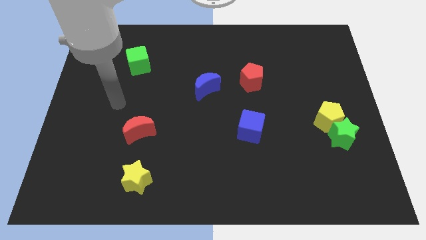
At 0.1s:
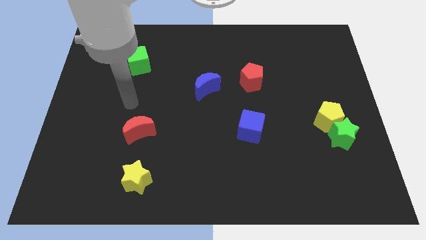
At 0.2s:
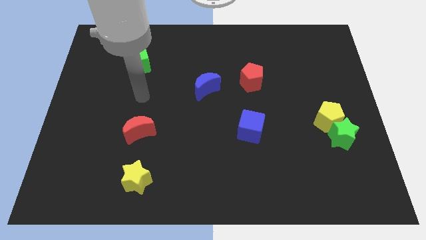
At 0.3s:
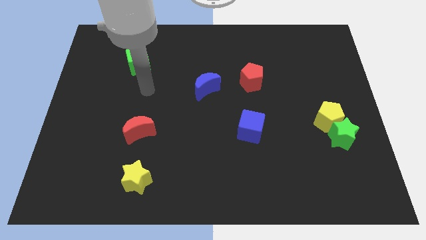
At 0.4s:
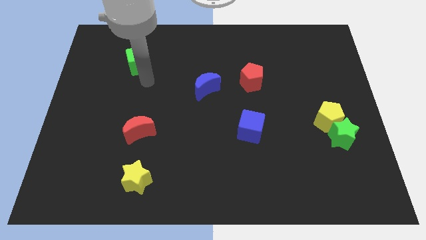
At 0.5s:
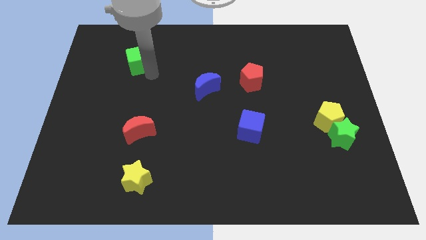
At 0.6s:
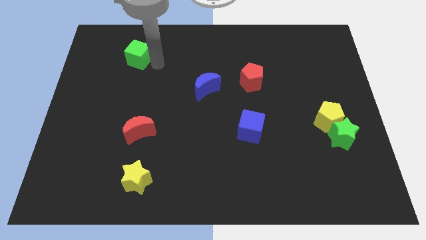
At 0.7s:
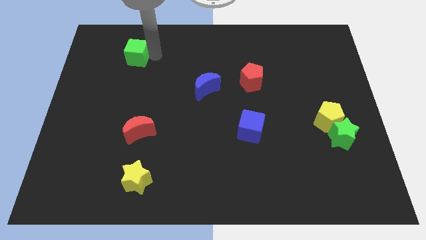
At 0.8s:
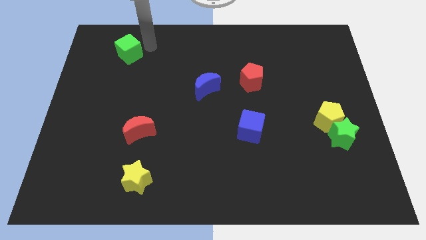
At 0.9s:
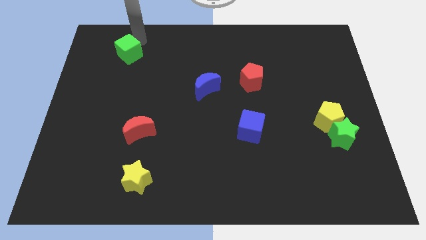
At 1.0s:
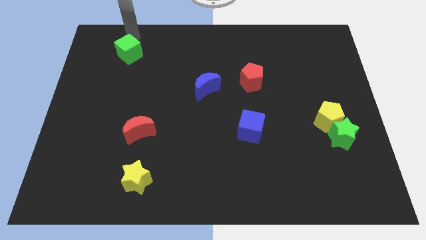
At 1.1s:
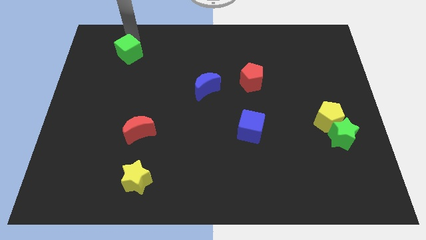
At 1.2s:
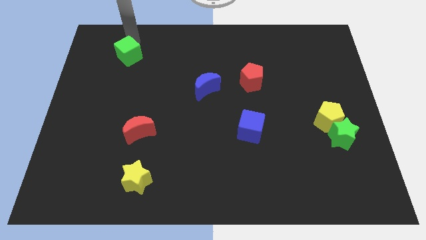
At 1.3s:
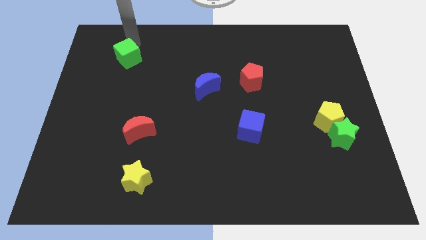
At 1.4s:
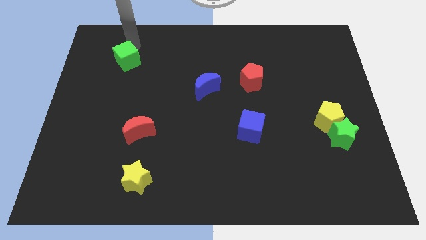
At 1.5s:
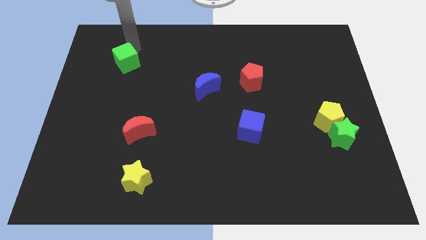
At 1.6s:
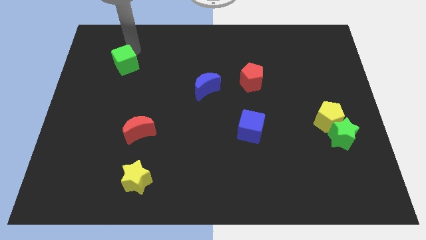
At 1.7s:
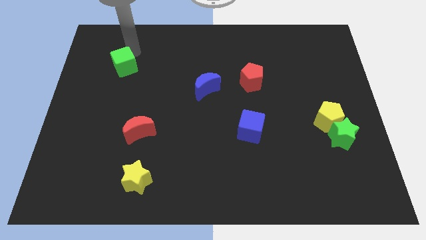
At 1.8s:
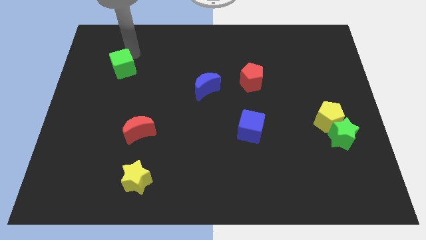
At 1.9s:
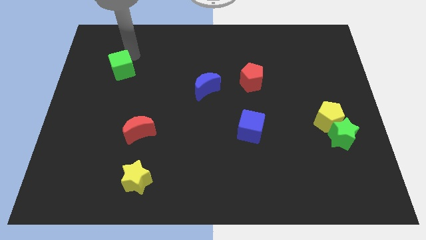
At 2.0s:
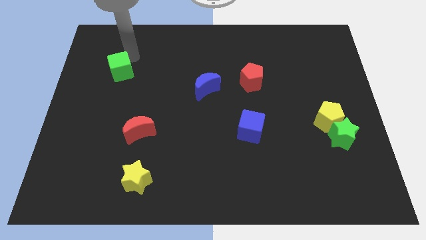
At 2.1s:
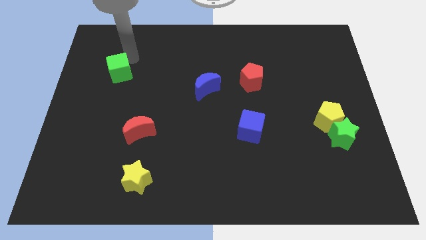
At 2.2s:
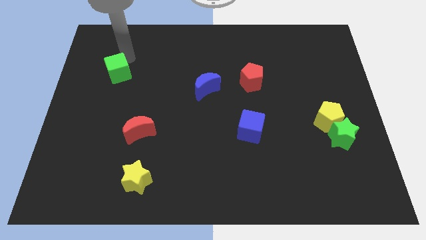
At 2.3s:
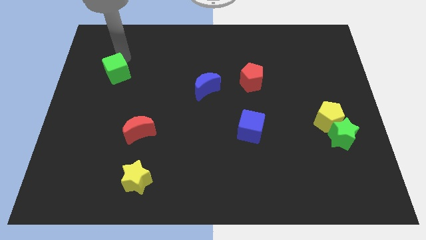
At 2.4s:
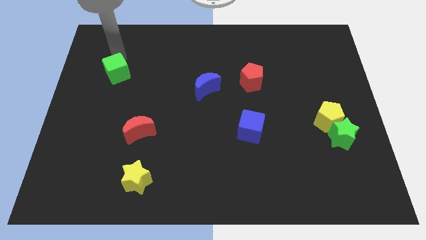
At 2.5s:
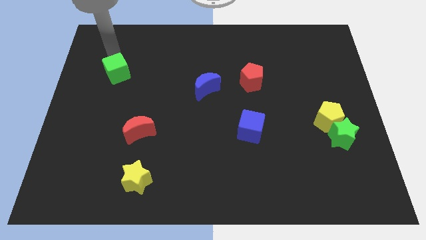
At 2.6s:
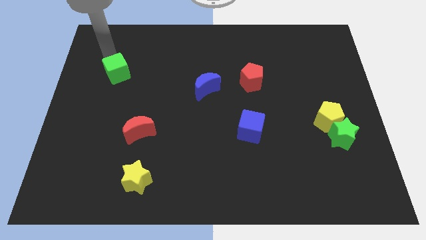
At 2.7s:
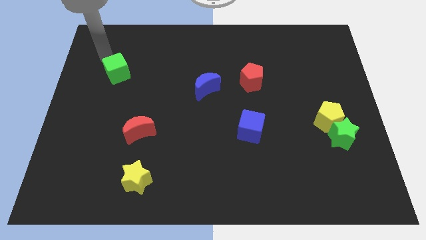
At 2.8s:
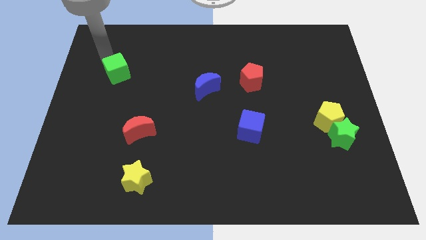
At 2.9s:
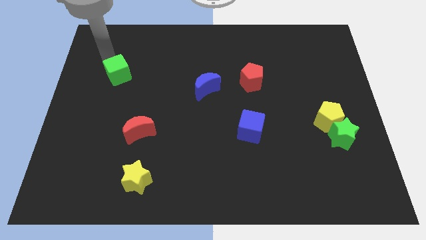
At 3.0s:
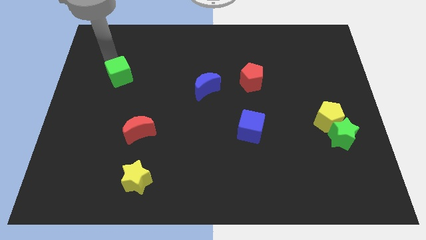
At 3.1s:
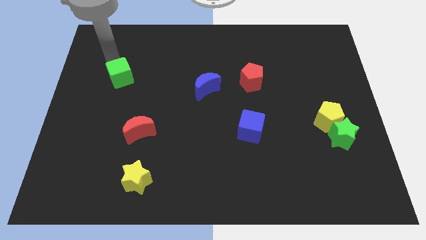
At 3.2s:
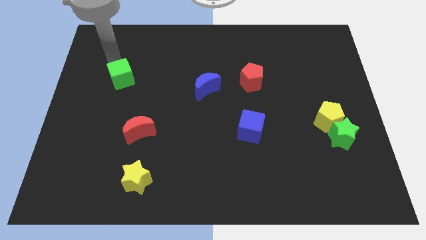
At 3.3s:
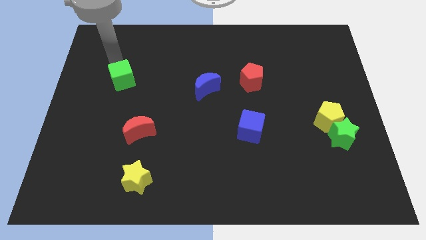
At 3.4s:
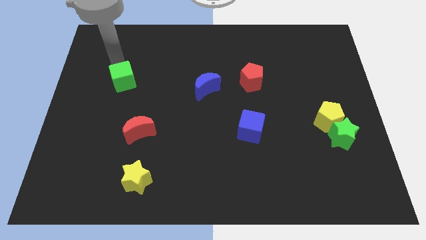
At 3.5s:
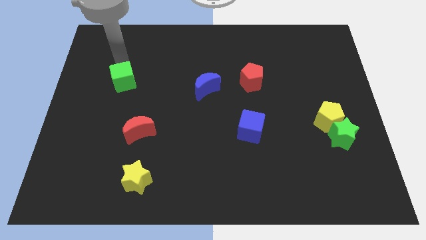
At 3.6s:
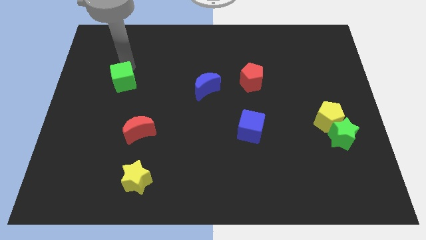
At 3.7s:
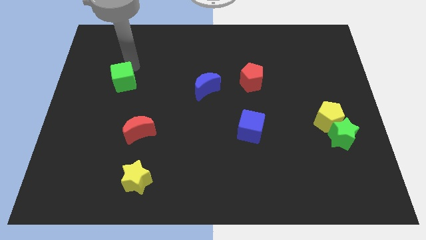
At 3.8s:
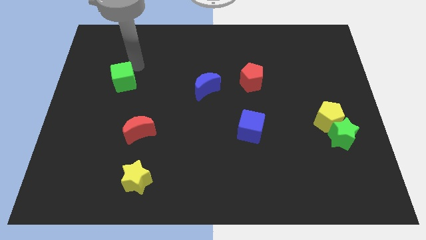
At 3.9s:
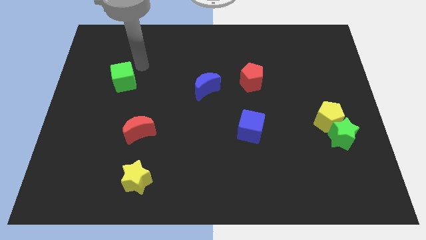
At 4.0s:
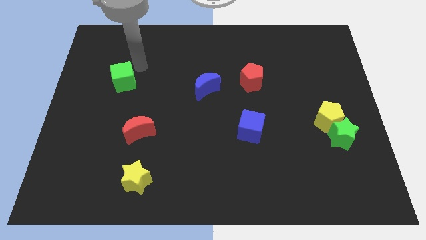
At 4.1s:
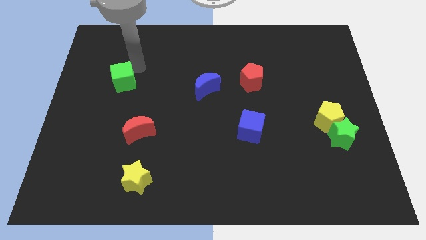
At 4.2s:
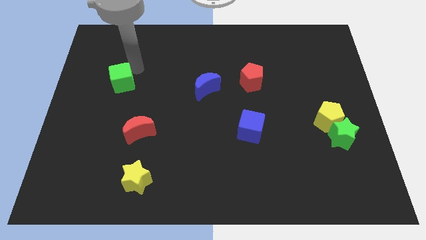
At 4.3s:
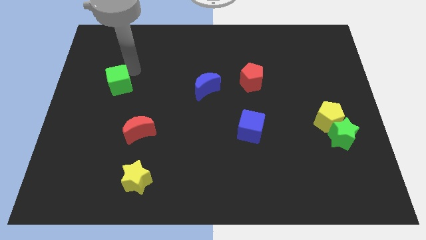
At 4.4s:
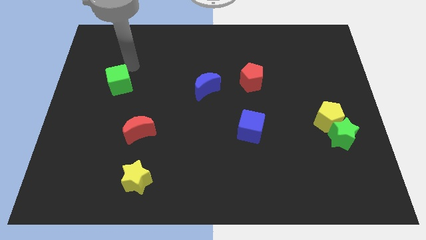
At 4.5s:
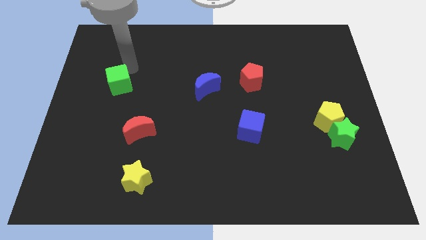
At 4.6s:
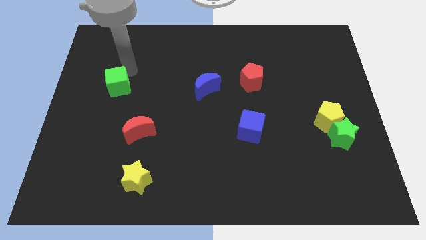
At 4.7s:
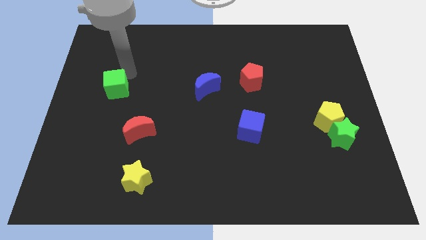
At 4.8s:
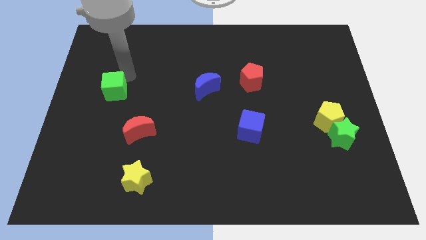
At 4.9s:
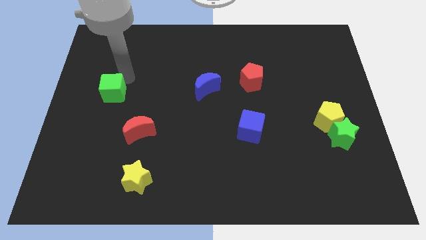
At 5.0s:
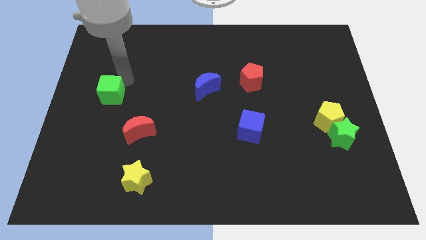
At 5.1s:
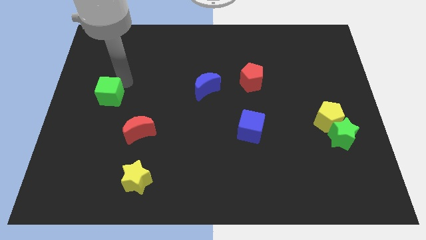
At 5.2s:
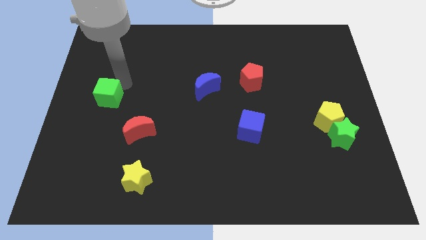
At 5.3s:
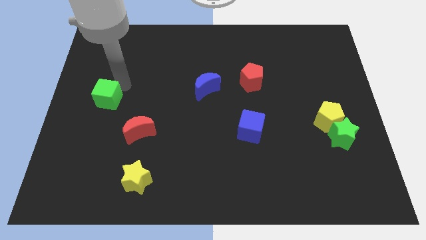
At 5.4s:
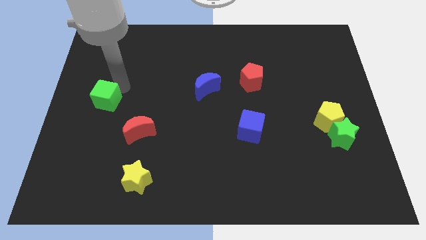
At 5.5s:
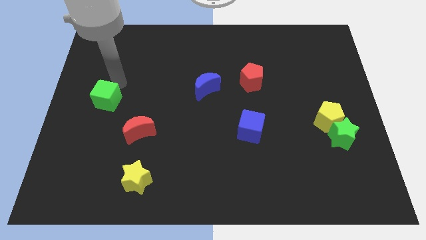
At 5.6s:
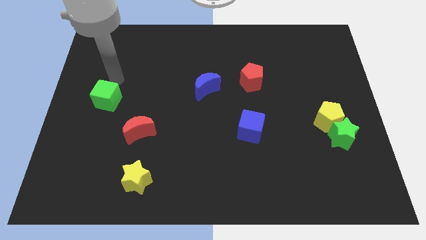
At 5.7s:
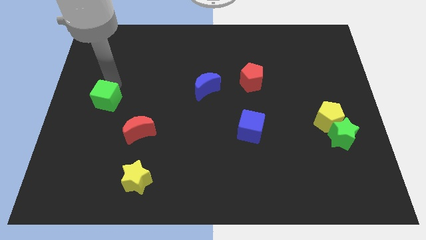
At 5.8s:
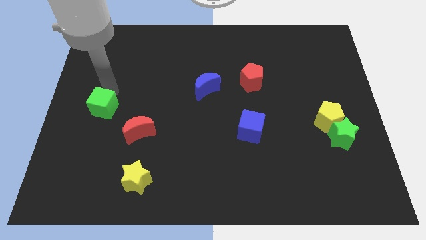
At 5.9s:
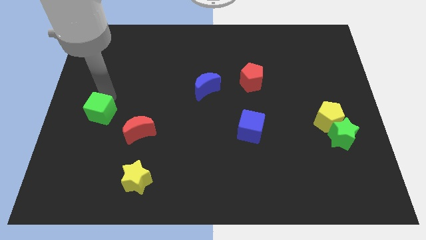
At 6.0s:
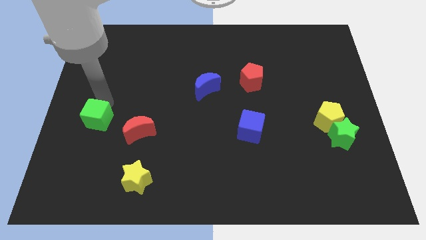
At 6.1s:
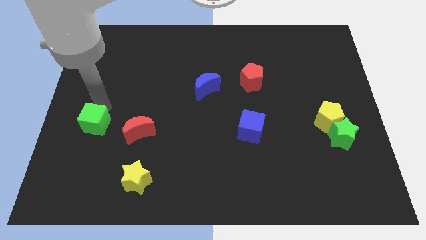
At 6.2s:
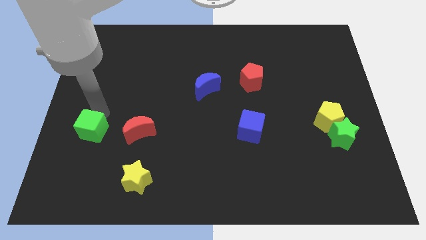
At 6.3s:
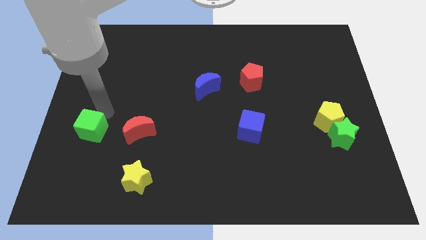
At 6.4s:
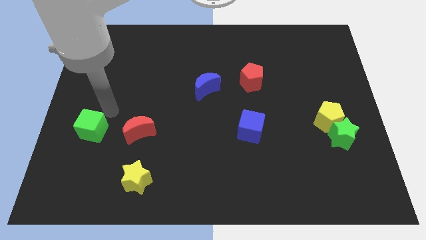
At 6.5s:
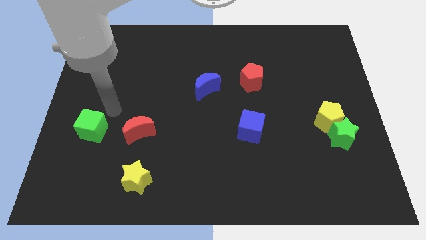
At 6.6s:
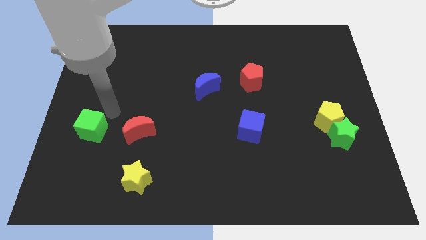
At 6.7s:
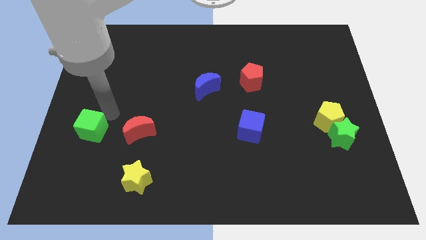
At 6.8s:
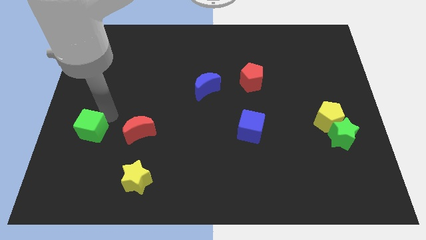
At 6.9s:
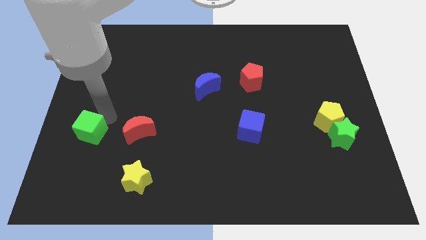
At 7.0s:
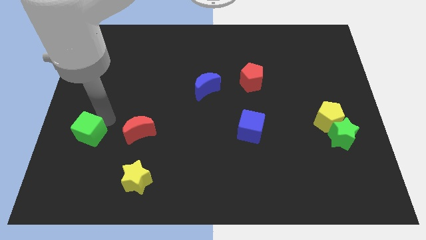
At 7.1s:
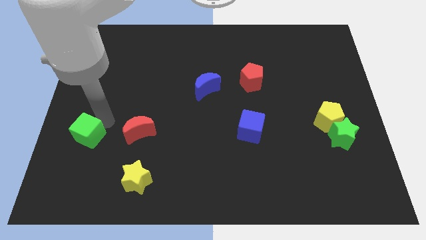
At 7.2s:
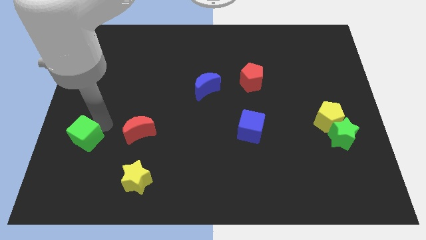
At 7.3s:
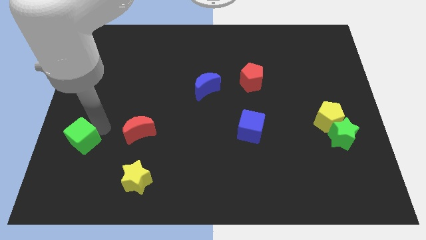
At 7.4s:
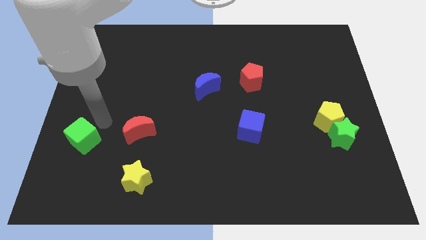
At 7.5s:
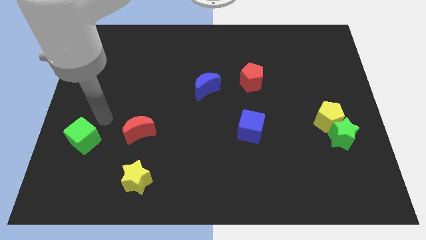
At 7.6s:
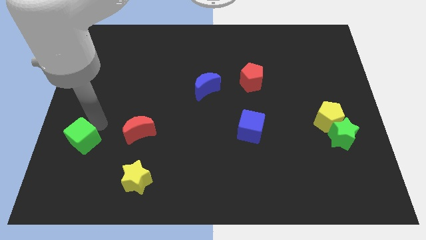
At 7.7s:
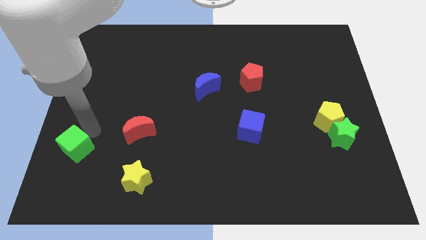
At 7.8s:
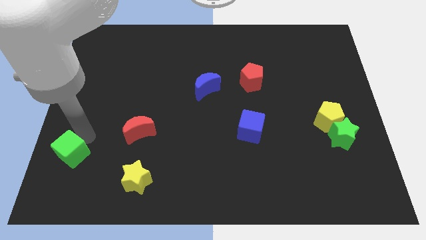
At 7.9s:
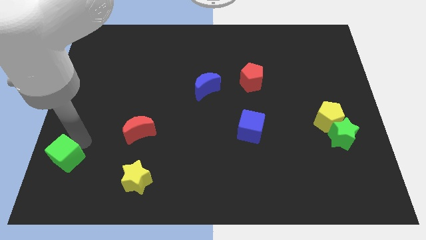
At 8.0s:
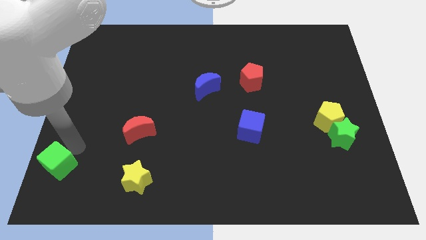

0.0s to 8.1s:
move the green cube to the bottom left corner
